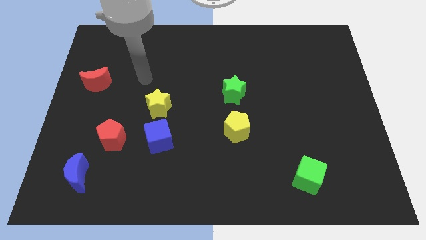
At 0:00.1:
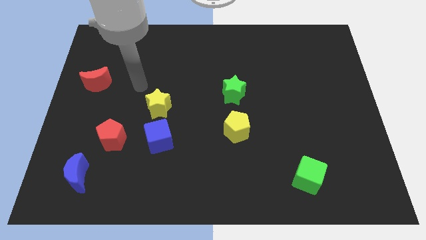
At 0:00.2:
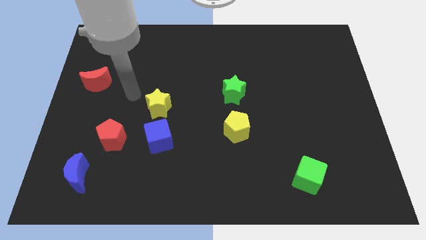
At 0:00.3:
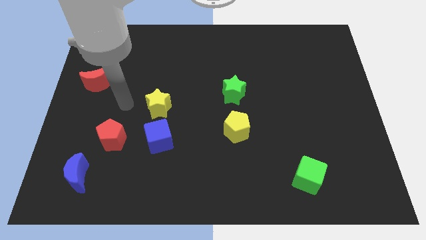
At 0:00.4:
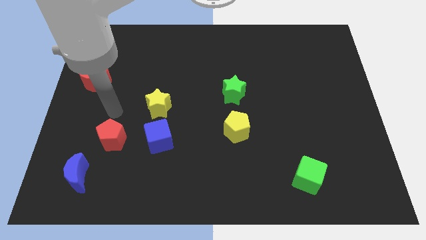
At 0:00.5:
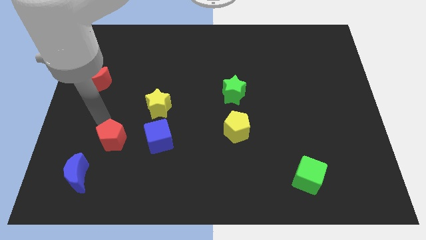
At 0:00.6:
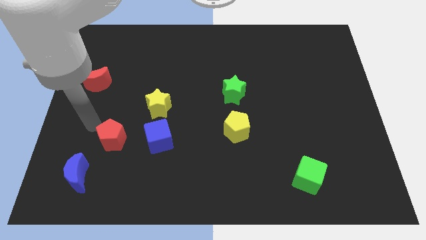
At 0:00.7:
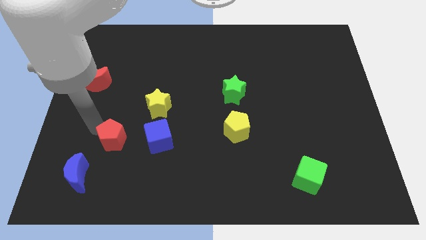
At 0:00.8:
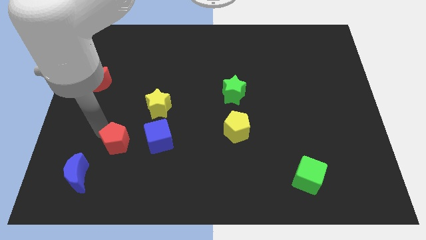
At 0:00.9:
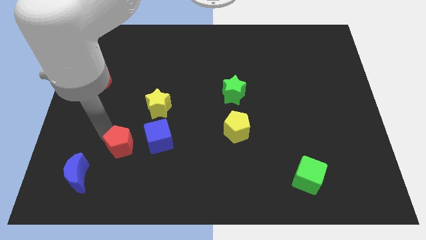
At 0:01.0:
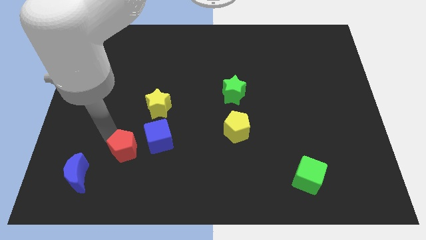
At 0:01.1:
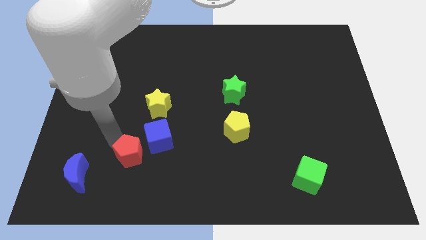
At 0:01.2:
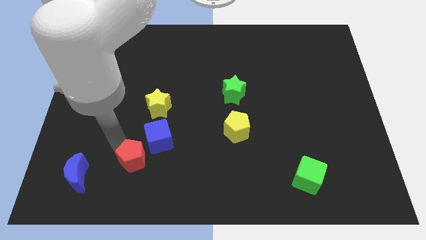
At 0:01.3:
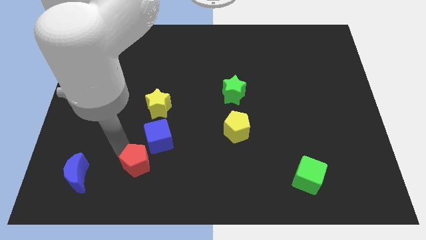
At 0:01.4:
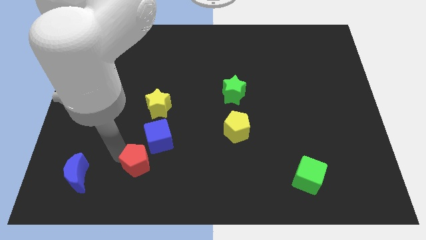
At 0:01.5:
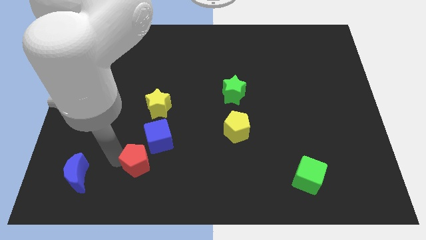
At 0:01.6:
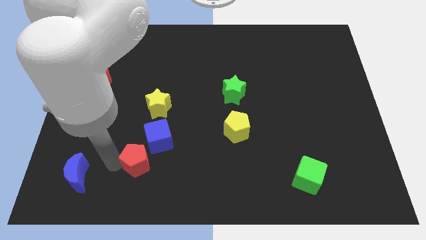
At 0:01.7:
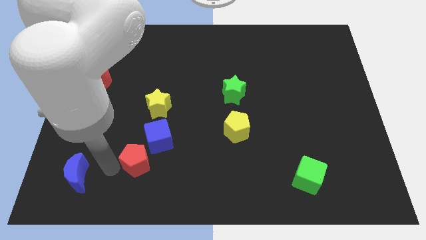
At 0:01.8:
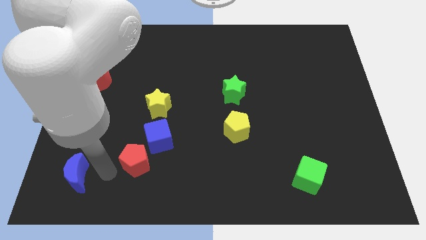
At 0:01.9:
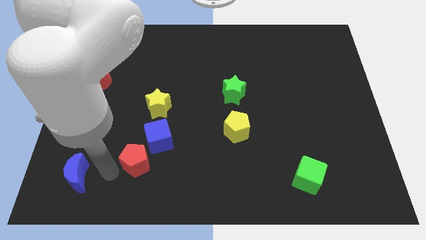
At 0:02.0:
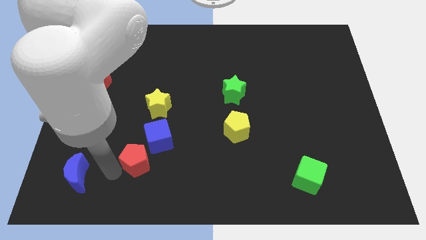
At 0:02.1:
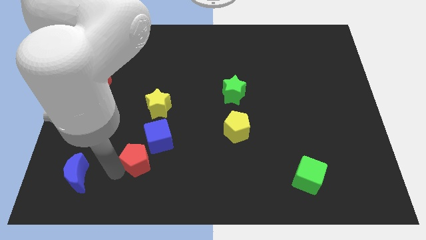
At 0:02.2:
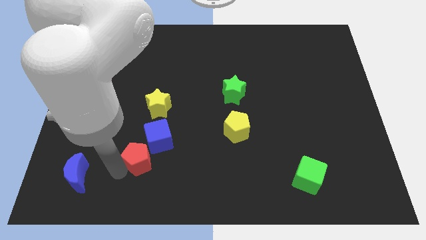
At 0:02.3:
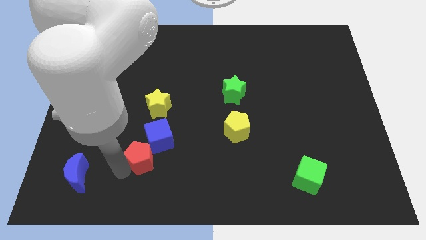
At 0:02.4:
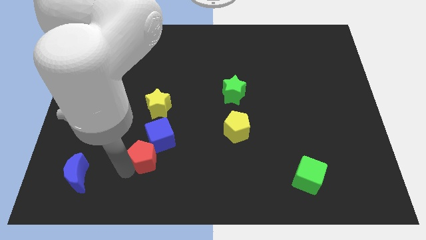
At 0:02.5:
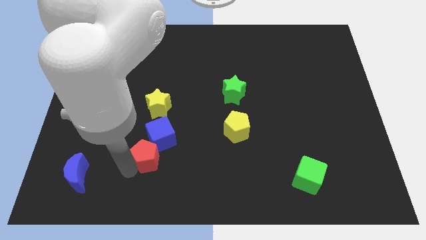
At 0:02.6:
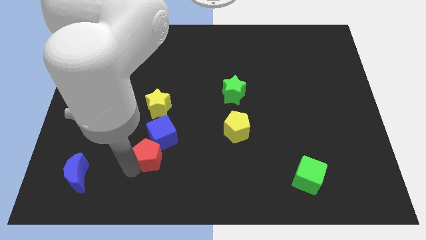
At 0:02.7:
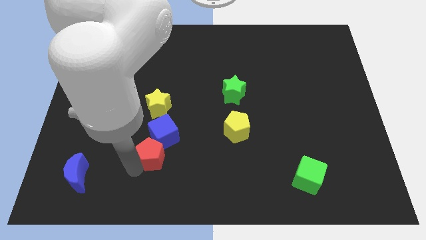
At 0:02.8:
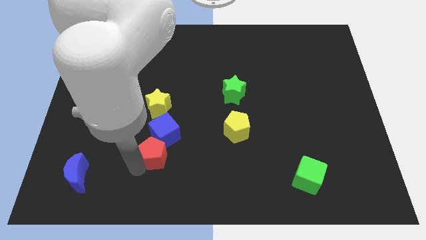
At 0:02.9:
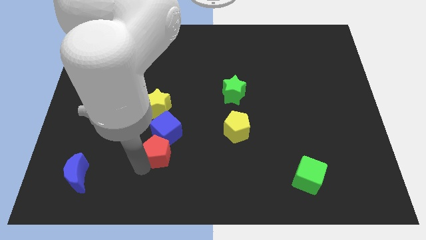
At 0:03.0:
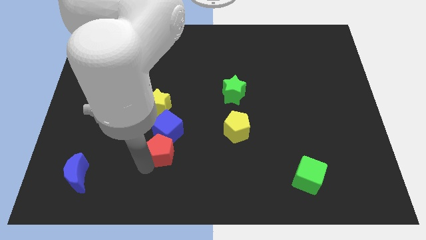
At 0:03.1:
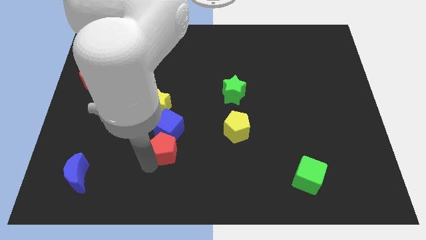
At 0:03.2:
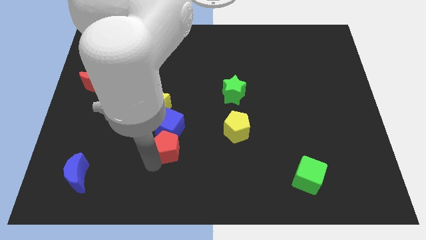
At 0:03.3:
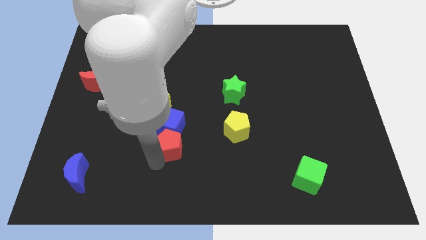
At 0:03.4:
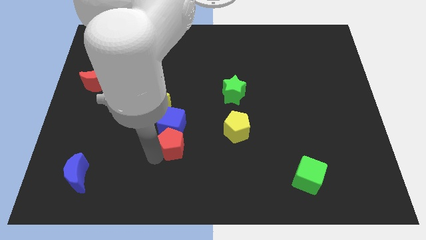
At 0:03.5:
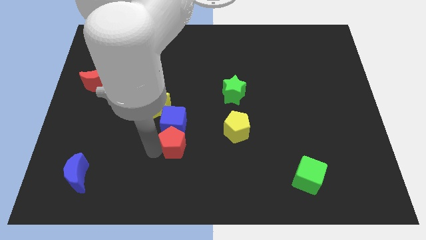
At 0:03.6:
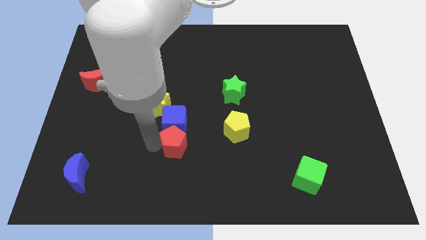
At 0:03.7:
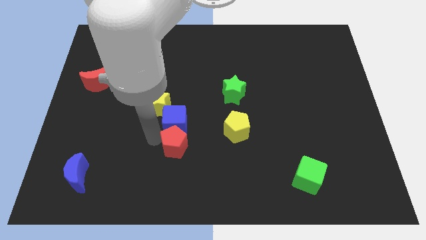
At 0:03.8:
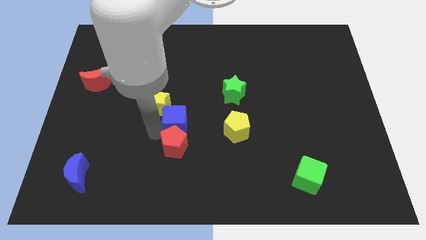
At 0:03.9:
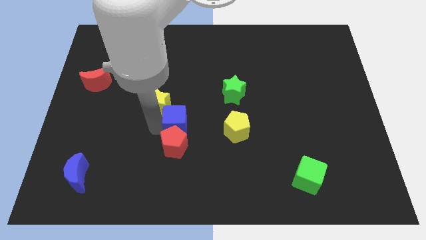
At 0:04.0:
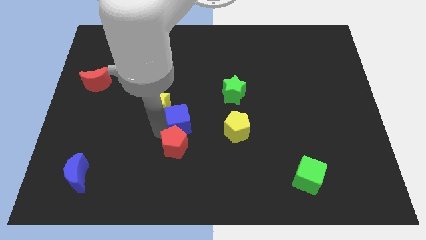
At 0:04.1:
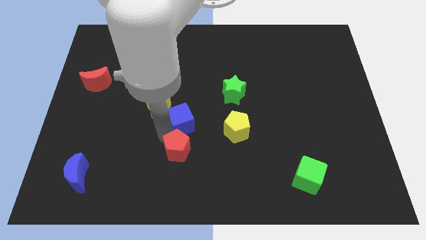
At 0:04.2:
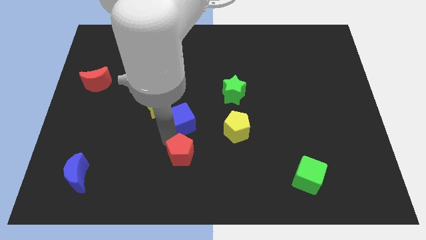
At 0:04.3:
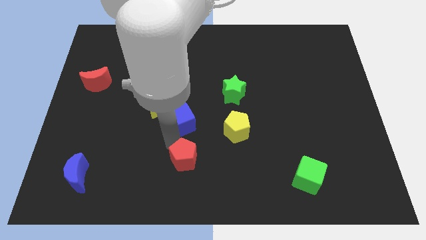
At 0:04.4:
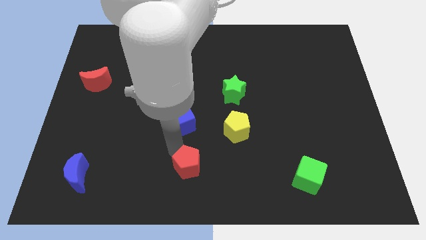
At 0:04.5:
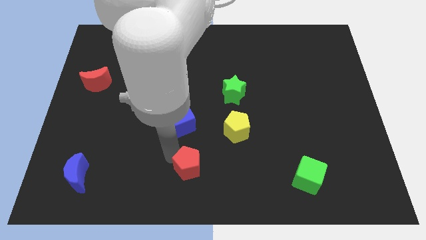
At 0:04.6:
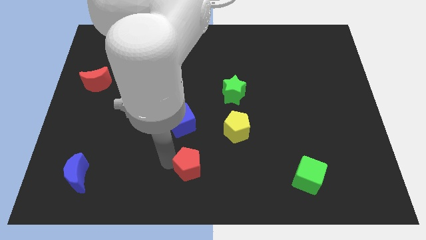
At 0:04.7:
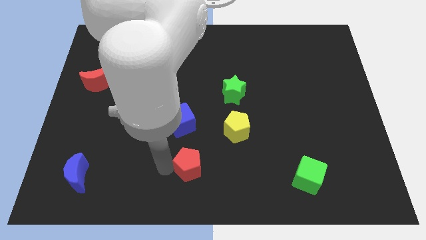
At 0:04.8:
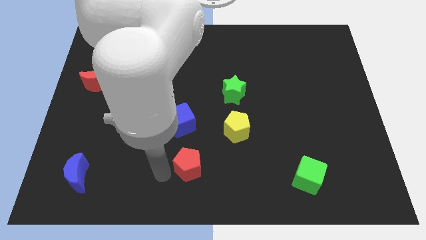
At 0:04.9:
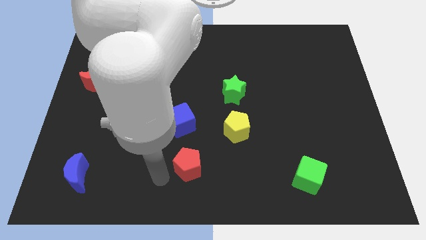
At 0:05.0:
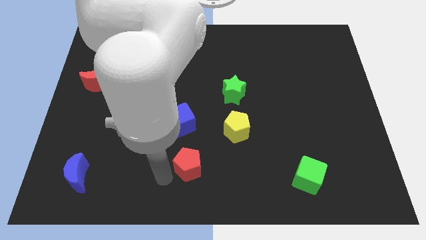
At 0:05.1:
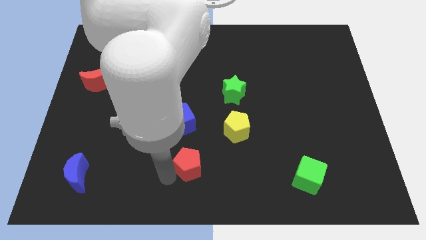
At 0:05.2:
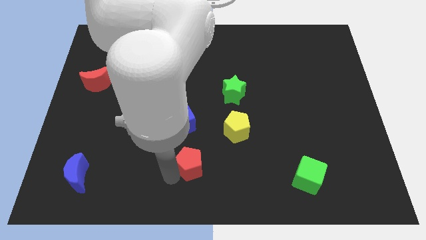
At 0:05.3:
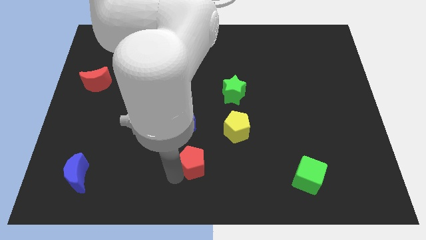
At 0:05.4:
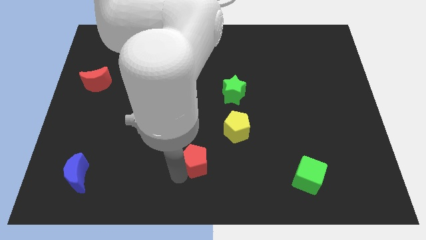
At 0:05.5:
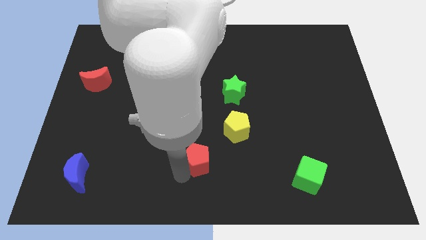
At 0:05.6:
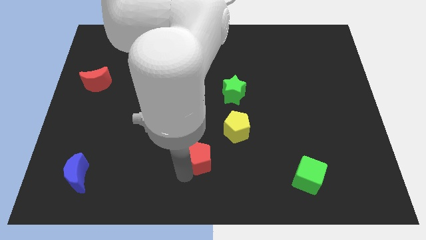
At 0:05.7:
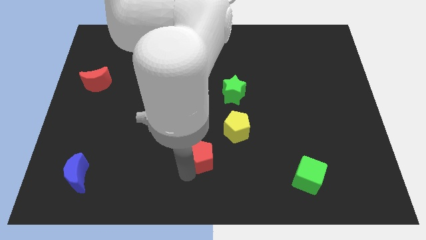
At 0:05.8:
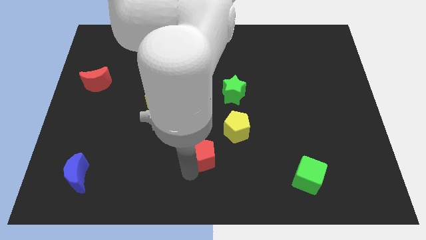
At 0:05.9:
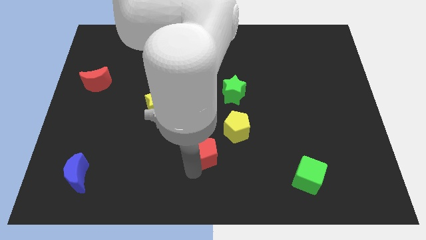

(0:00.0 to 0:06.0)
push the red pentagon to the right

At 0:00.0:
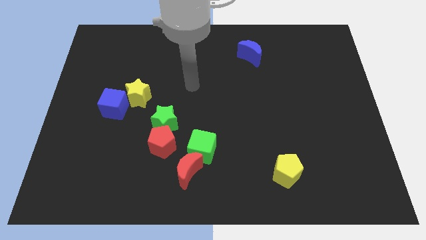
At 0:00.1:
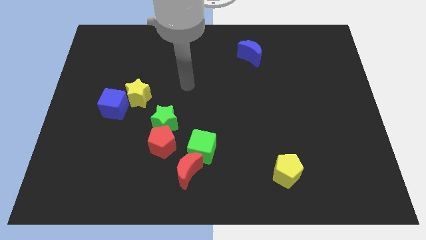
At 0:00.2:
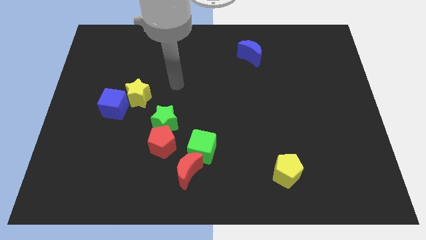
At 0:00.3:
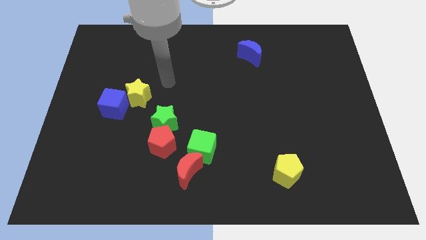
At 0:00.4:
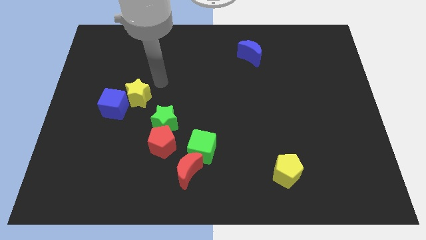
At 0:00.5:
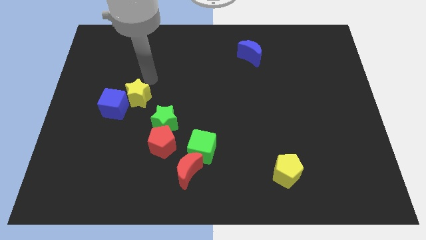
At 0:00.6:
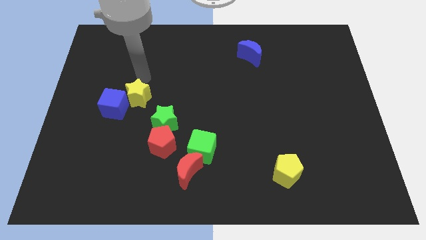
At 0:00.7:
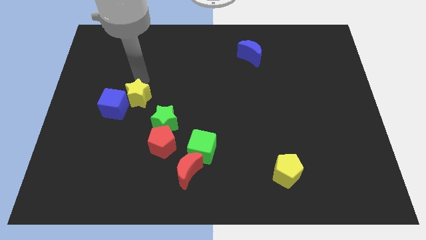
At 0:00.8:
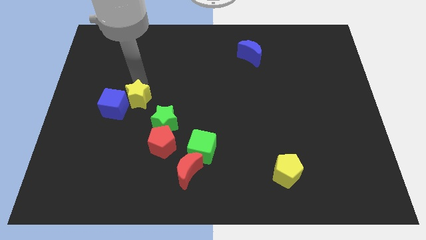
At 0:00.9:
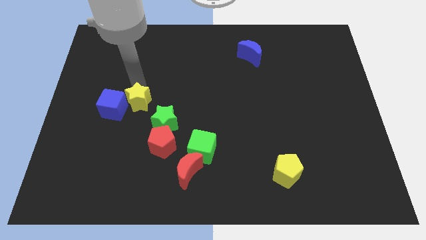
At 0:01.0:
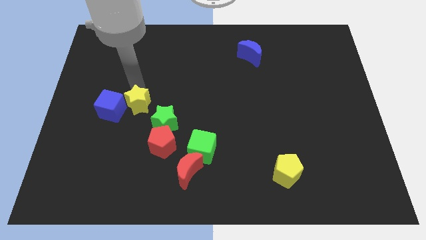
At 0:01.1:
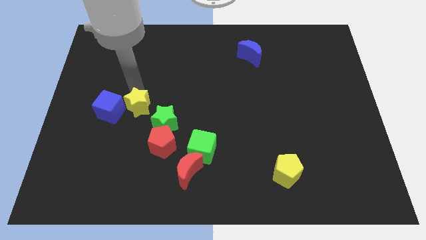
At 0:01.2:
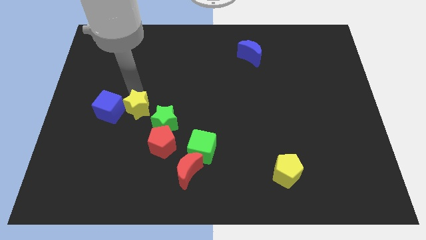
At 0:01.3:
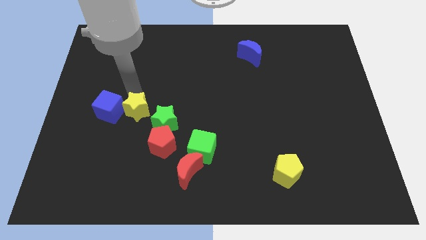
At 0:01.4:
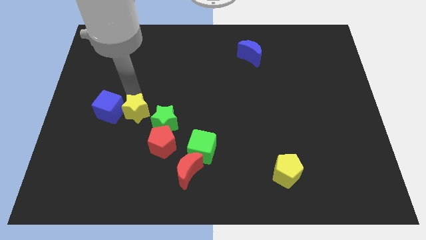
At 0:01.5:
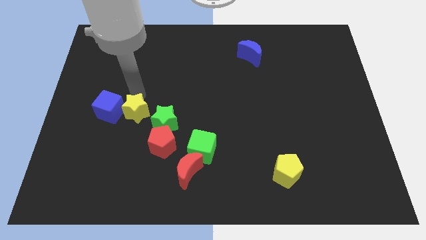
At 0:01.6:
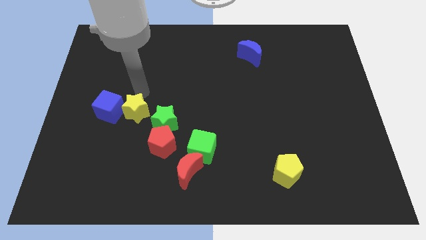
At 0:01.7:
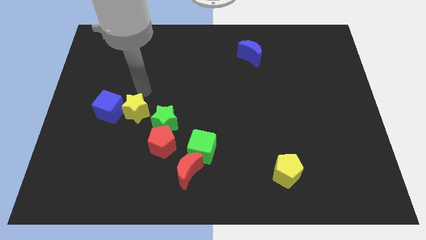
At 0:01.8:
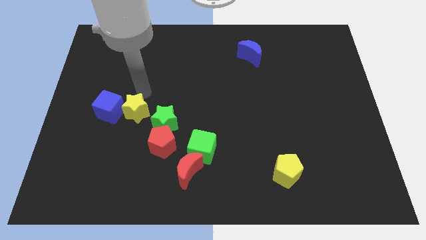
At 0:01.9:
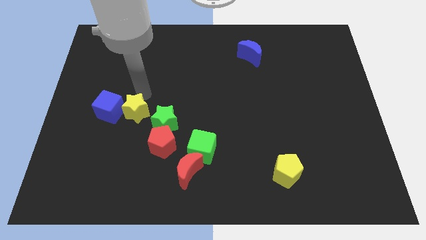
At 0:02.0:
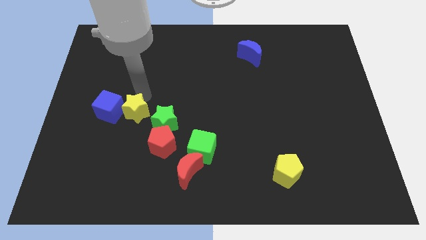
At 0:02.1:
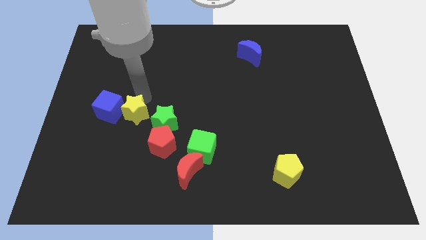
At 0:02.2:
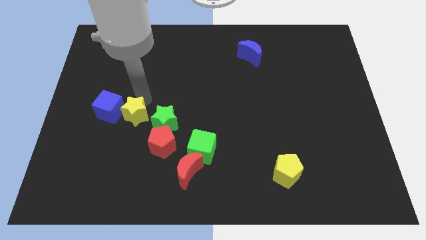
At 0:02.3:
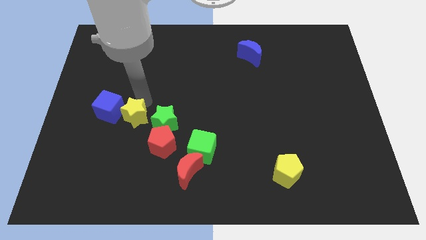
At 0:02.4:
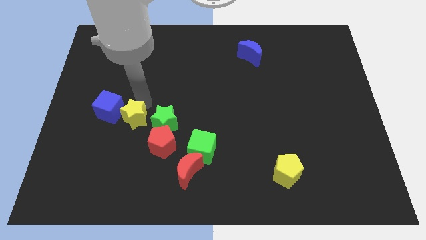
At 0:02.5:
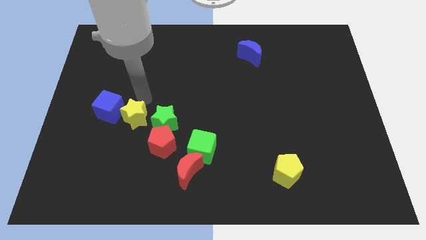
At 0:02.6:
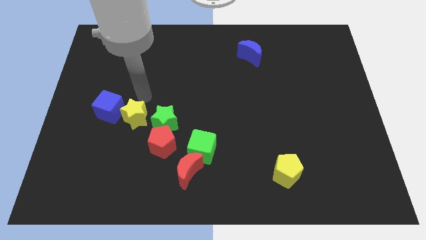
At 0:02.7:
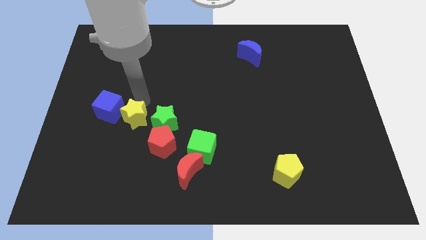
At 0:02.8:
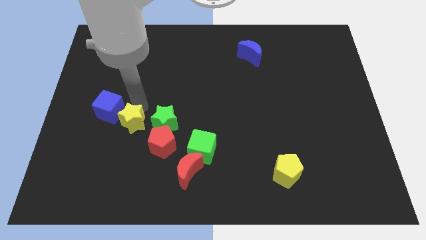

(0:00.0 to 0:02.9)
push the yellow star somewhat down
